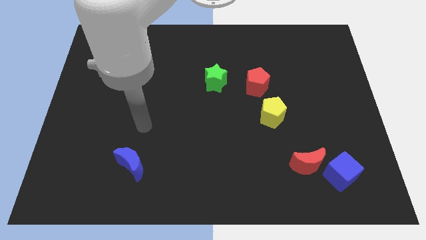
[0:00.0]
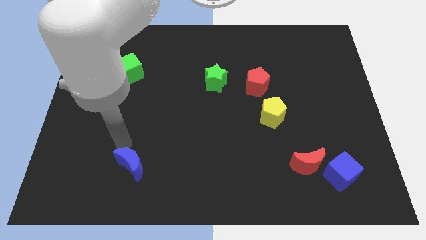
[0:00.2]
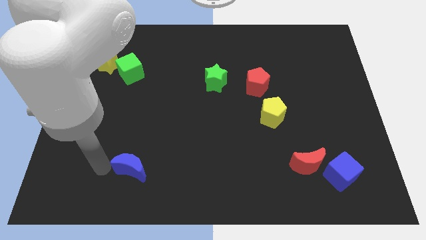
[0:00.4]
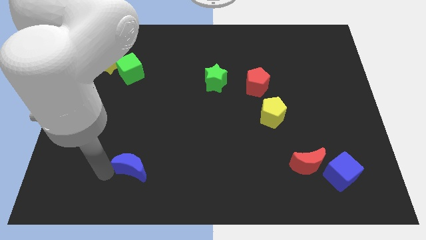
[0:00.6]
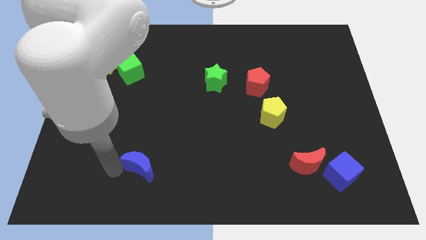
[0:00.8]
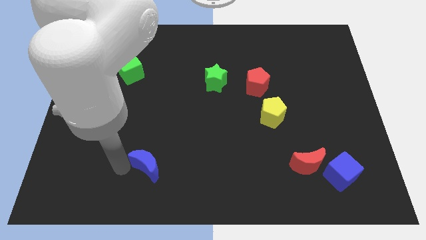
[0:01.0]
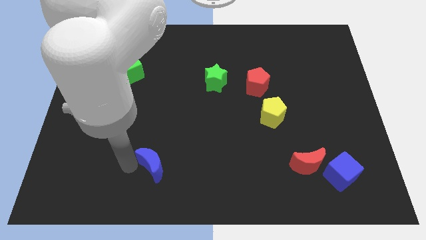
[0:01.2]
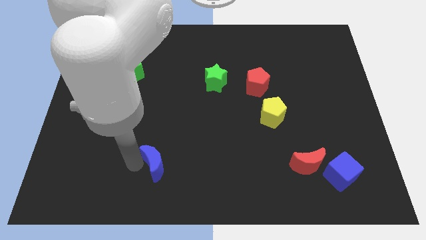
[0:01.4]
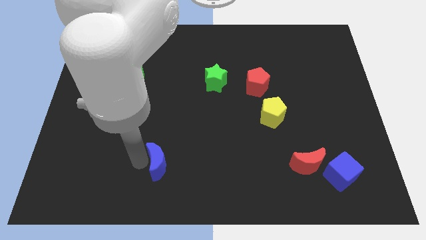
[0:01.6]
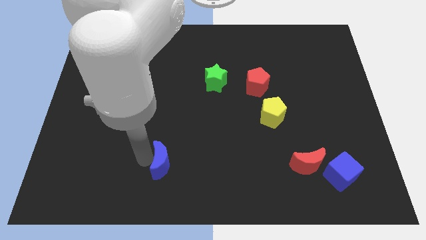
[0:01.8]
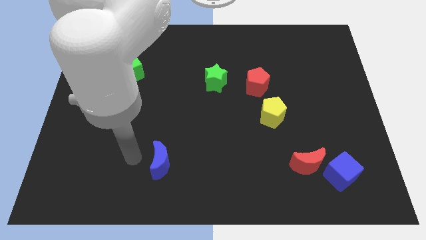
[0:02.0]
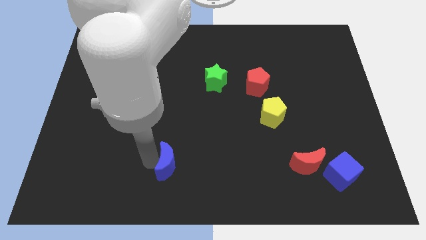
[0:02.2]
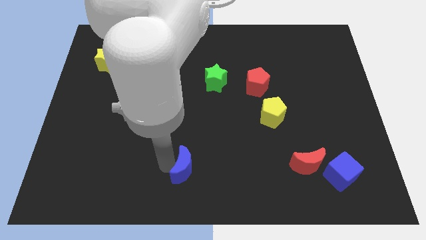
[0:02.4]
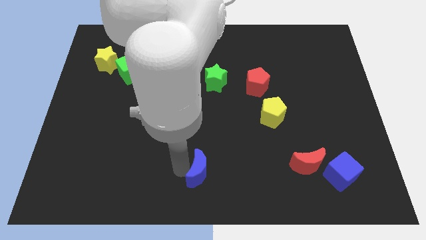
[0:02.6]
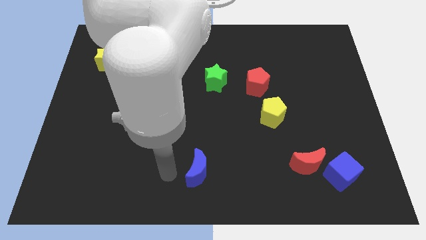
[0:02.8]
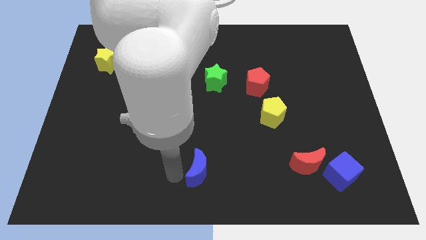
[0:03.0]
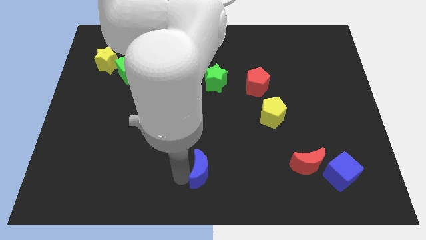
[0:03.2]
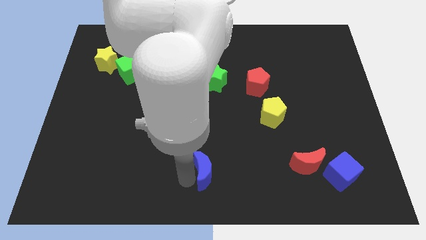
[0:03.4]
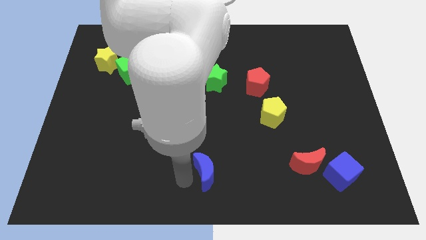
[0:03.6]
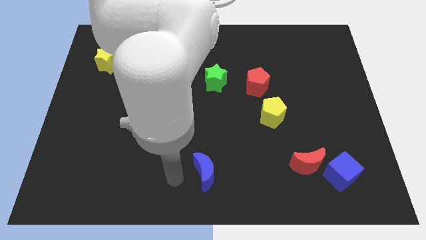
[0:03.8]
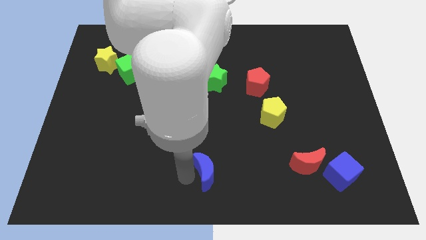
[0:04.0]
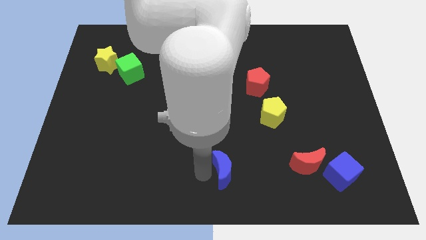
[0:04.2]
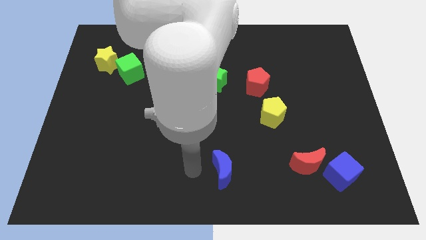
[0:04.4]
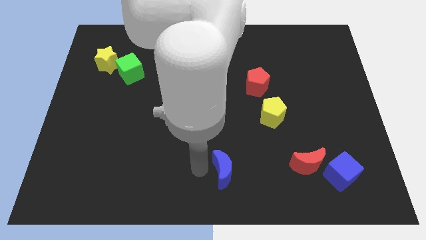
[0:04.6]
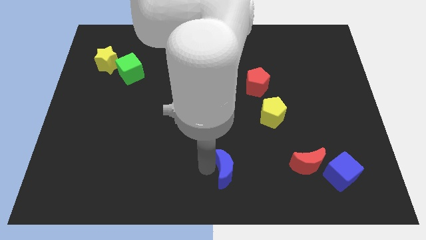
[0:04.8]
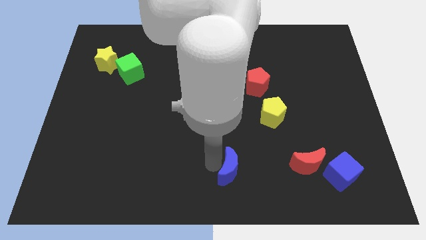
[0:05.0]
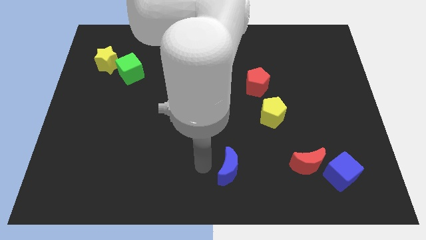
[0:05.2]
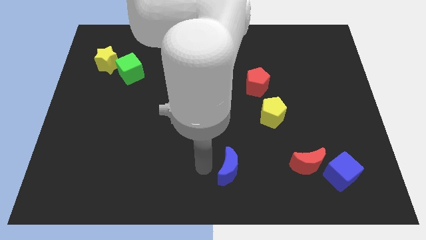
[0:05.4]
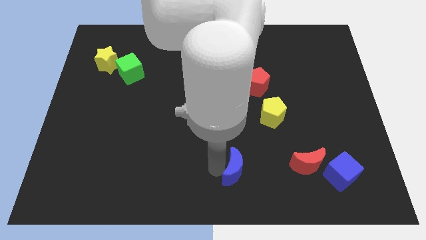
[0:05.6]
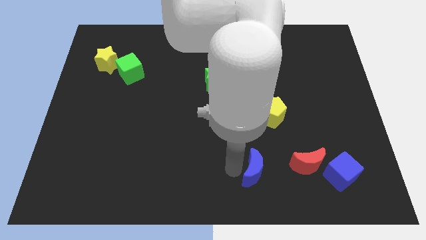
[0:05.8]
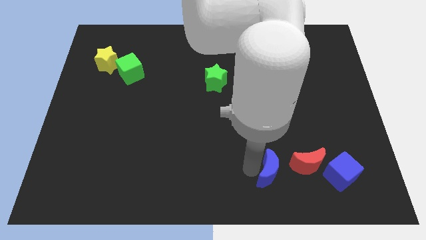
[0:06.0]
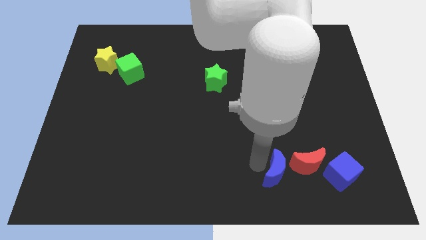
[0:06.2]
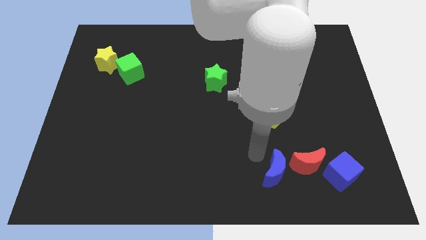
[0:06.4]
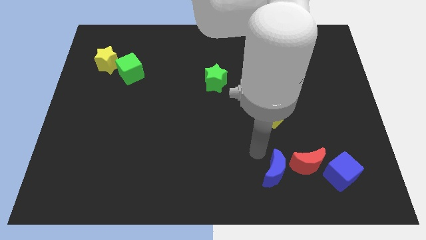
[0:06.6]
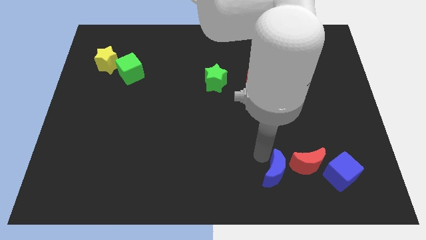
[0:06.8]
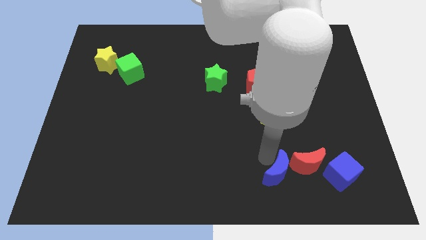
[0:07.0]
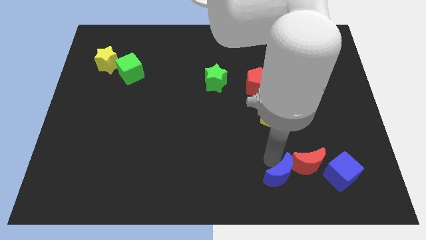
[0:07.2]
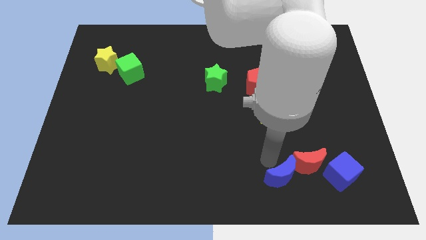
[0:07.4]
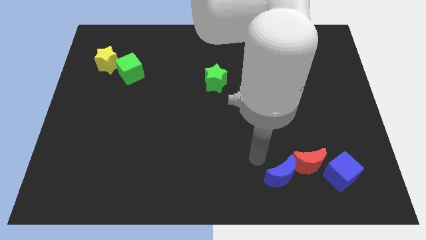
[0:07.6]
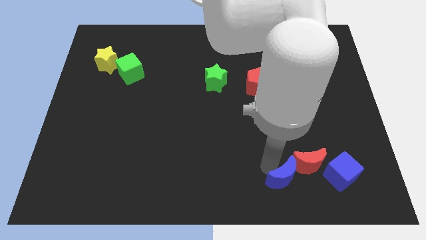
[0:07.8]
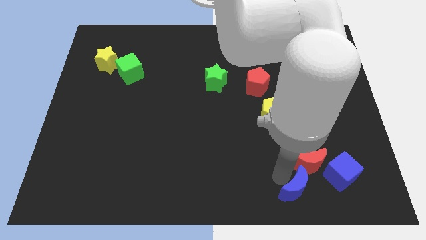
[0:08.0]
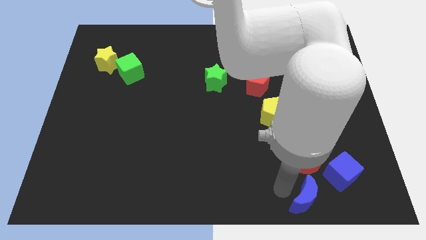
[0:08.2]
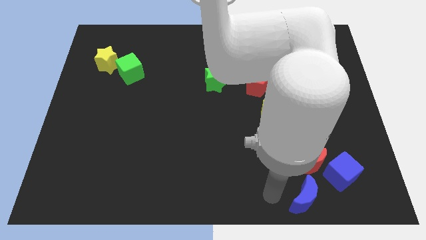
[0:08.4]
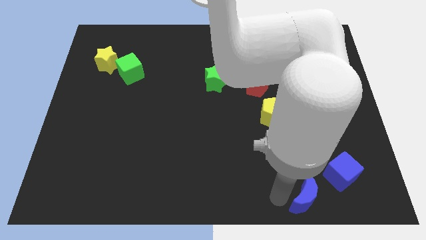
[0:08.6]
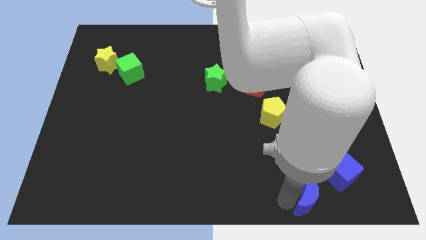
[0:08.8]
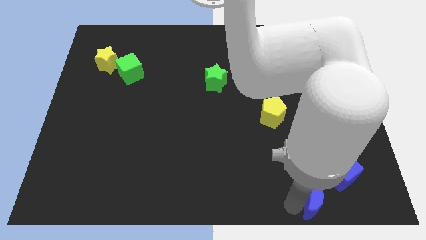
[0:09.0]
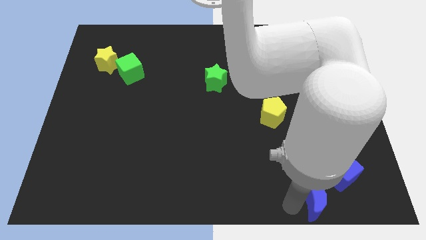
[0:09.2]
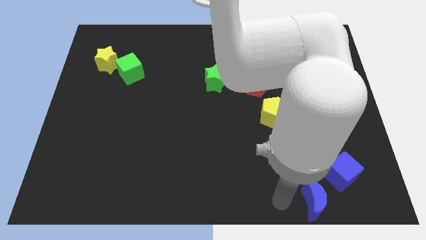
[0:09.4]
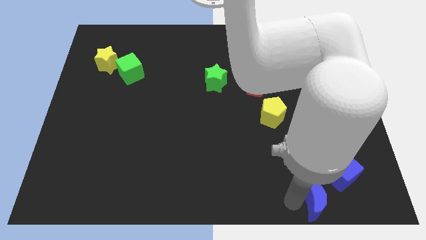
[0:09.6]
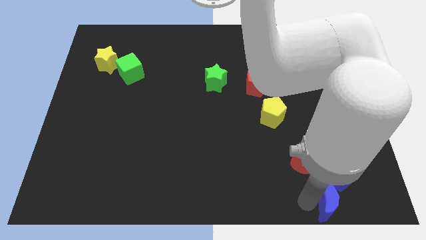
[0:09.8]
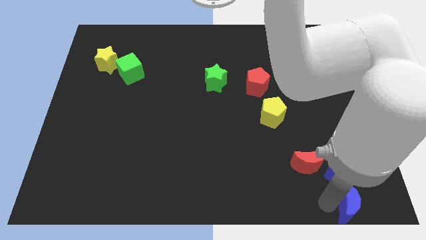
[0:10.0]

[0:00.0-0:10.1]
put the blue moon to the bottom right

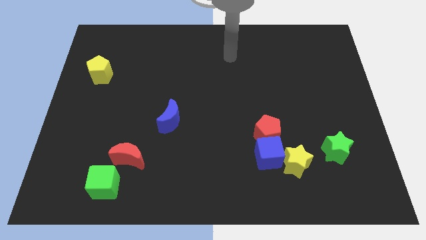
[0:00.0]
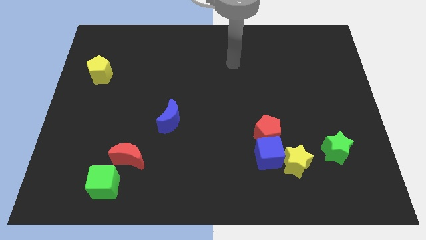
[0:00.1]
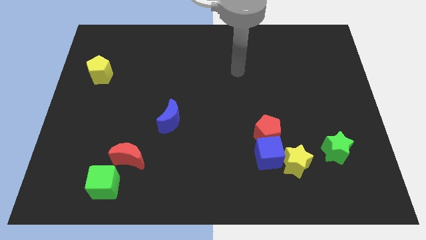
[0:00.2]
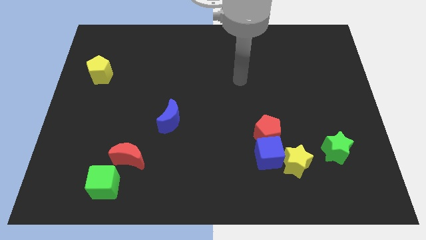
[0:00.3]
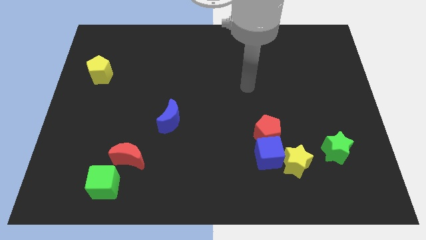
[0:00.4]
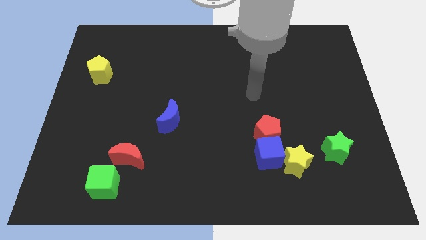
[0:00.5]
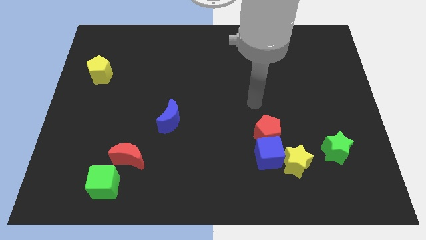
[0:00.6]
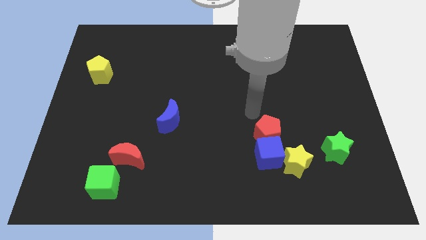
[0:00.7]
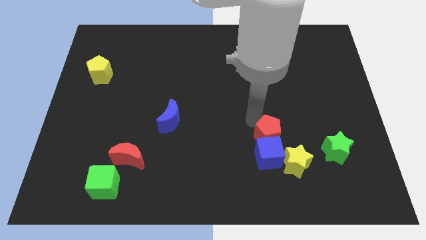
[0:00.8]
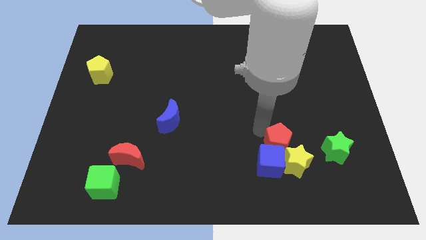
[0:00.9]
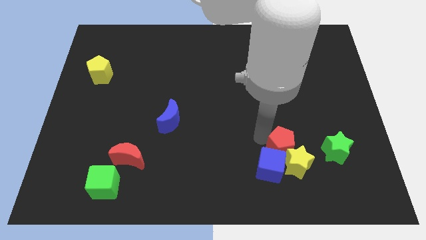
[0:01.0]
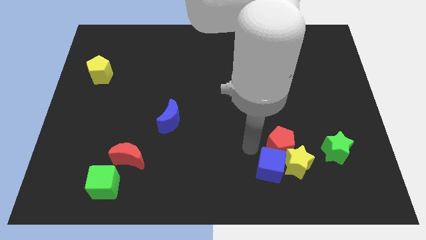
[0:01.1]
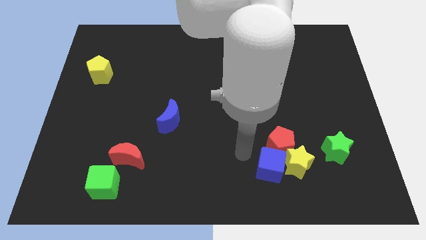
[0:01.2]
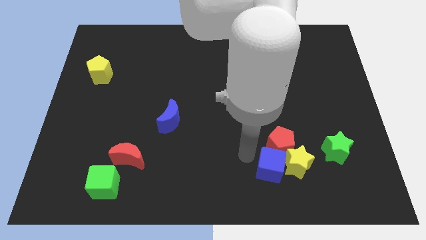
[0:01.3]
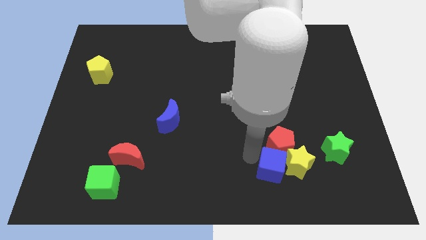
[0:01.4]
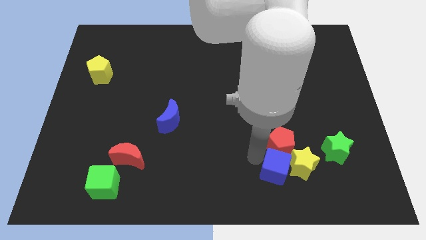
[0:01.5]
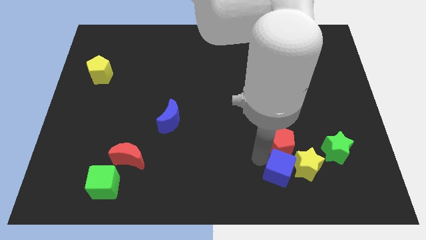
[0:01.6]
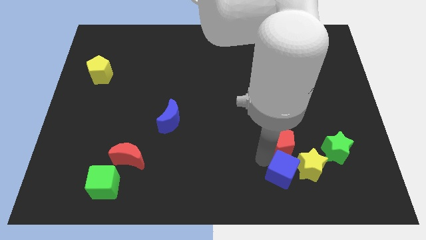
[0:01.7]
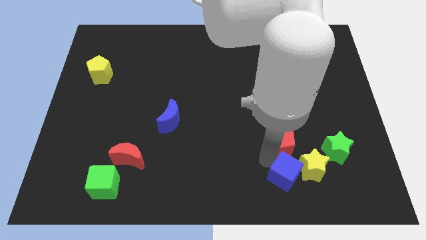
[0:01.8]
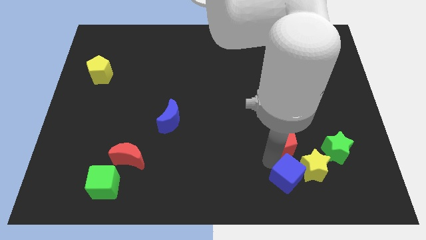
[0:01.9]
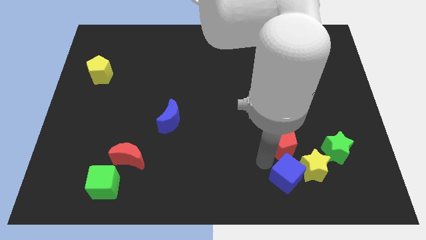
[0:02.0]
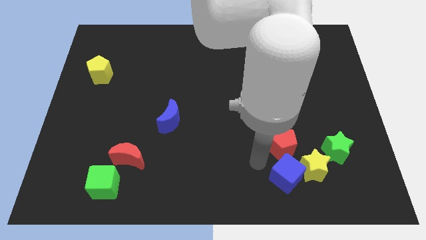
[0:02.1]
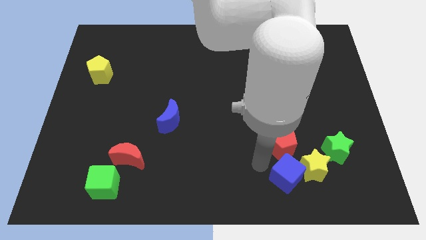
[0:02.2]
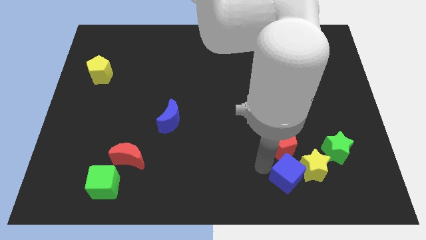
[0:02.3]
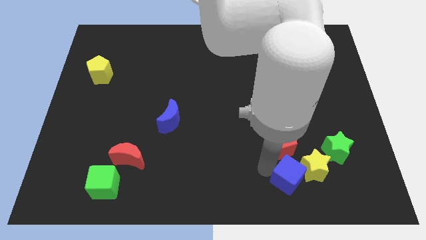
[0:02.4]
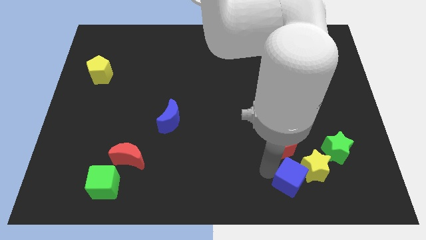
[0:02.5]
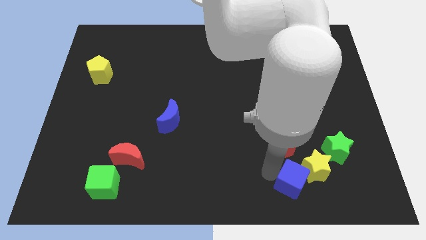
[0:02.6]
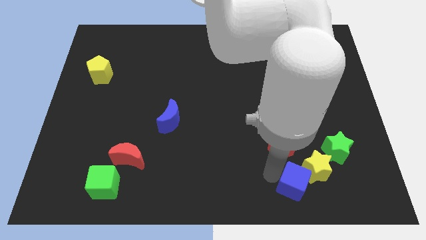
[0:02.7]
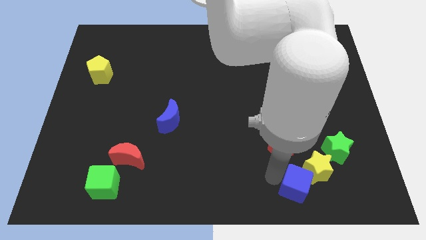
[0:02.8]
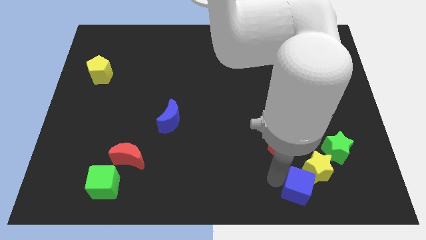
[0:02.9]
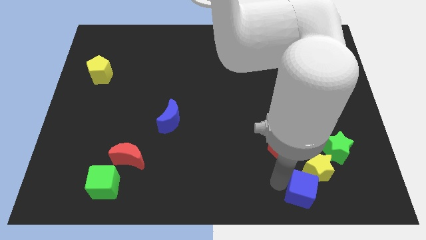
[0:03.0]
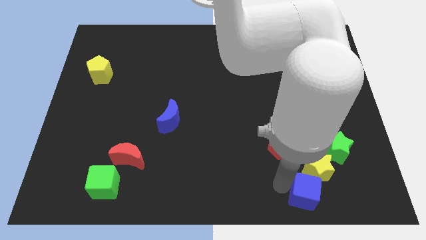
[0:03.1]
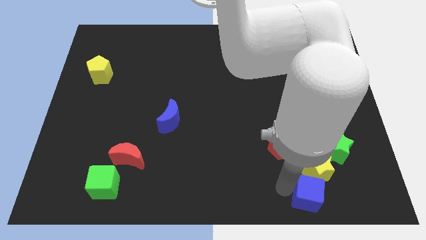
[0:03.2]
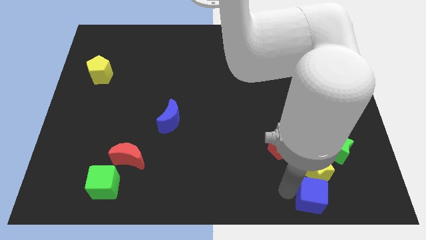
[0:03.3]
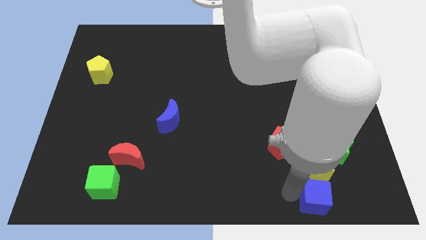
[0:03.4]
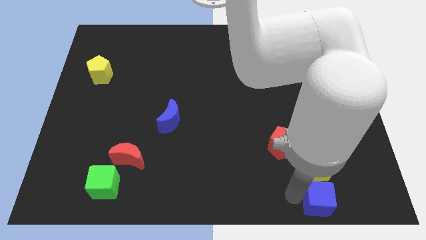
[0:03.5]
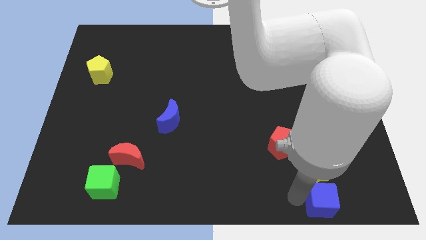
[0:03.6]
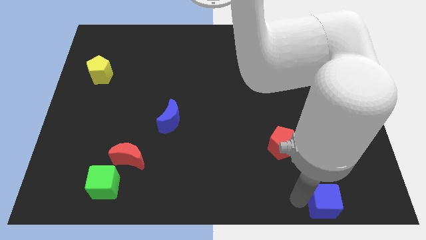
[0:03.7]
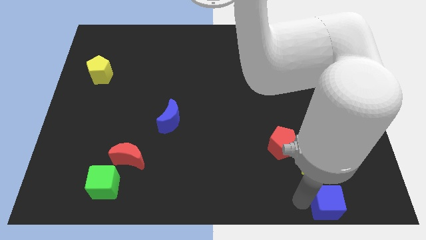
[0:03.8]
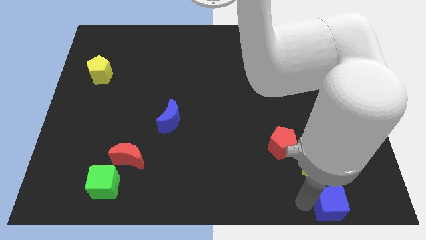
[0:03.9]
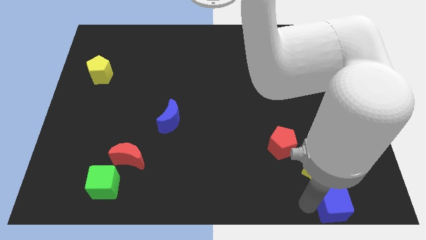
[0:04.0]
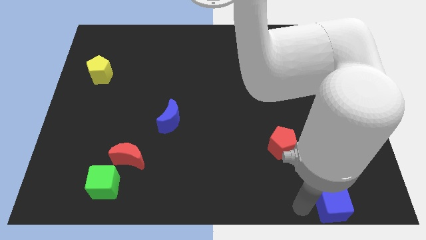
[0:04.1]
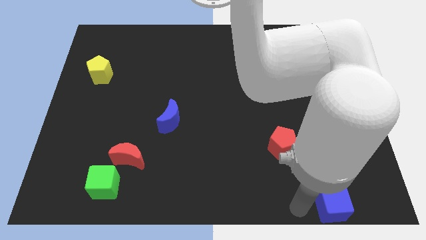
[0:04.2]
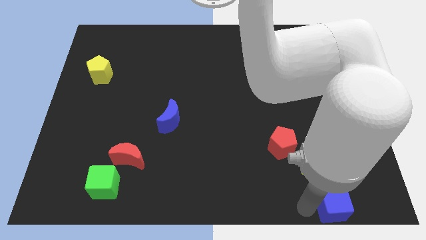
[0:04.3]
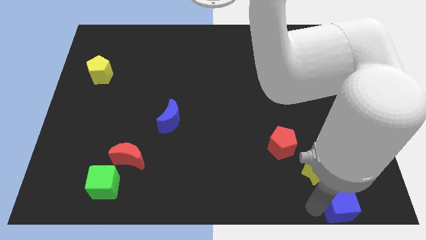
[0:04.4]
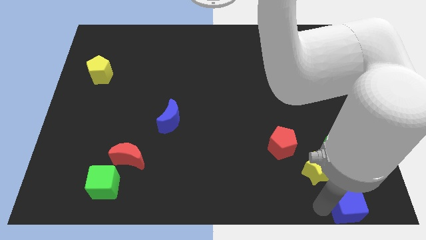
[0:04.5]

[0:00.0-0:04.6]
slide the blue cube to the bottom right of the board
